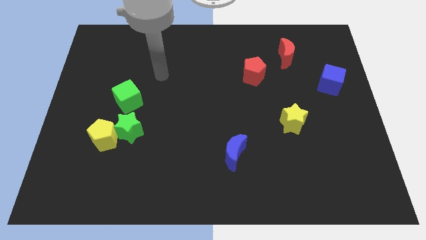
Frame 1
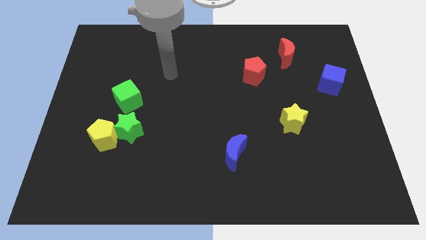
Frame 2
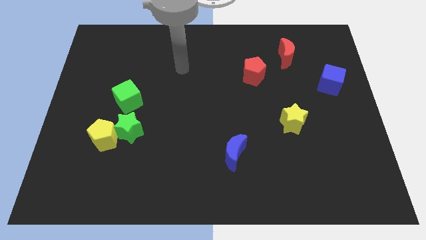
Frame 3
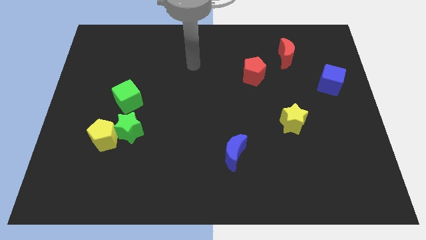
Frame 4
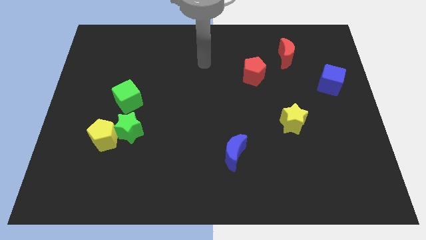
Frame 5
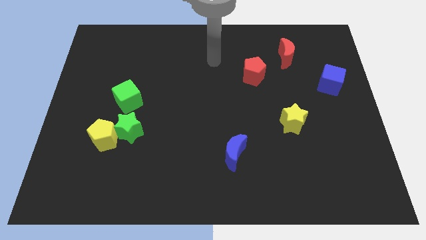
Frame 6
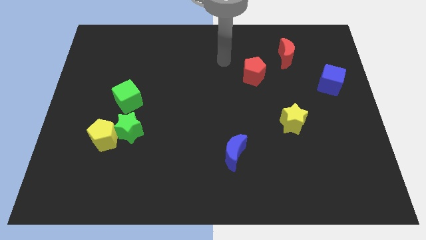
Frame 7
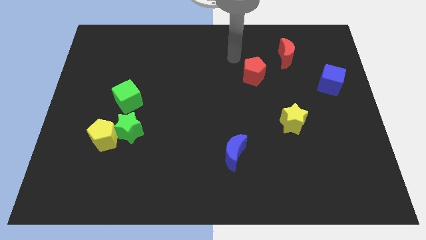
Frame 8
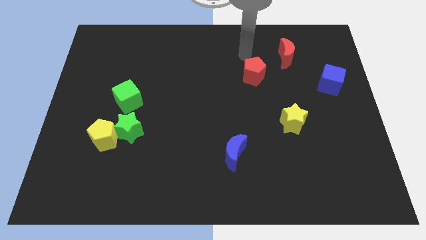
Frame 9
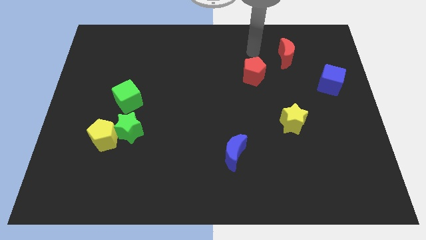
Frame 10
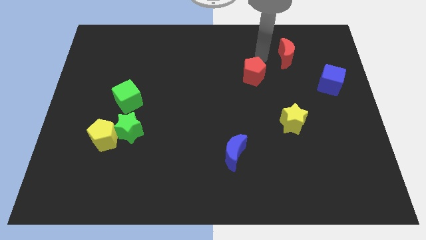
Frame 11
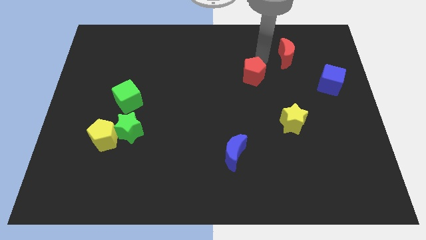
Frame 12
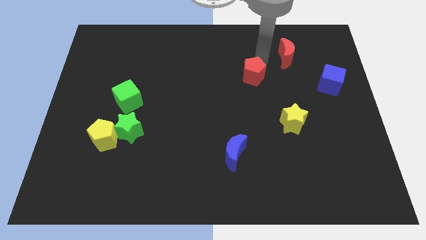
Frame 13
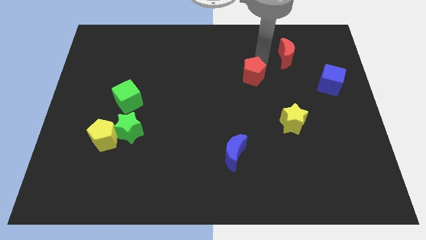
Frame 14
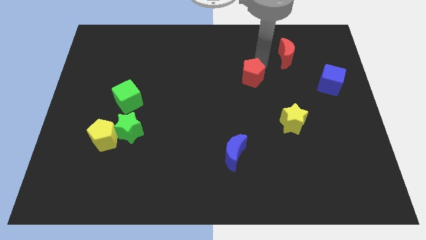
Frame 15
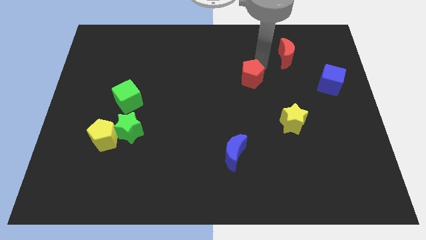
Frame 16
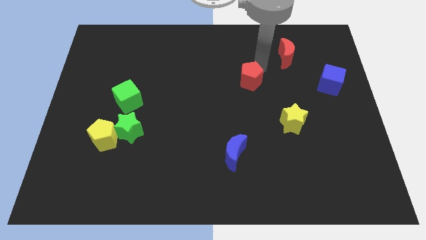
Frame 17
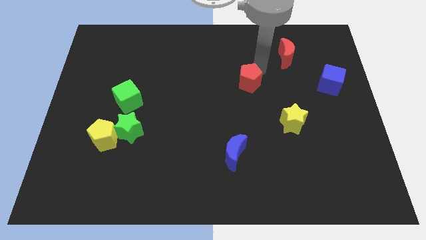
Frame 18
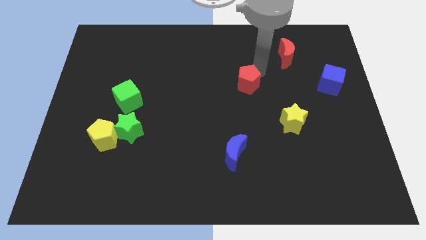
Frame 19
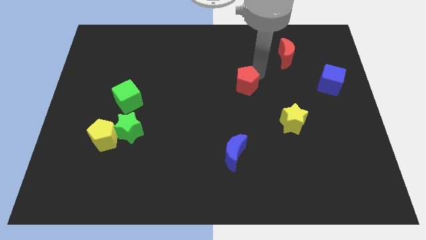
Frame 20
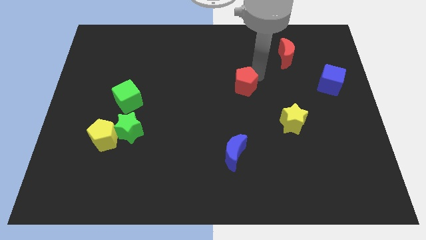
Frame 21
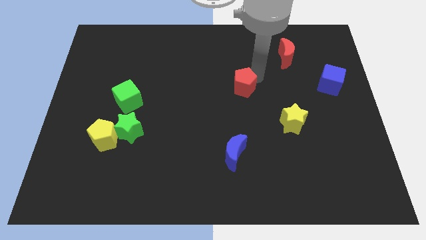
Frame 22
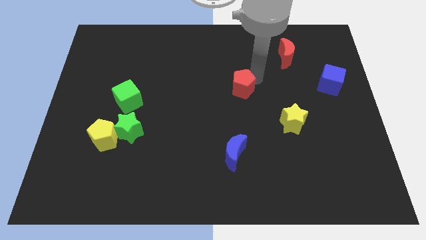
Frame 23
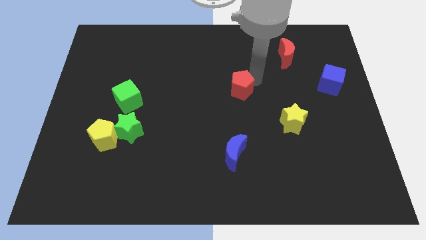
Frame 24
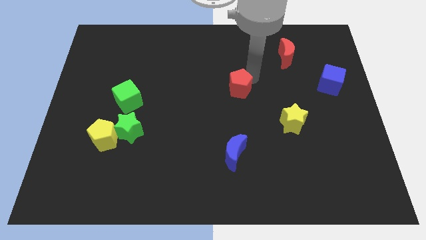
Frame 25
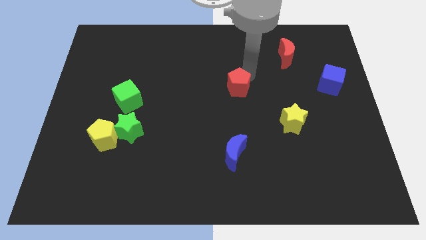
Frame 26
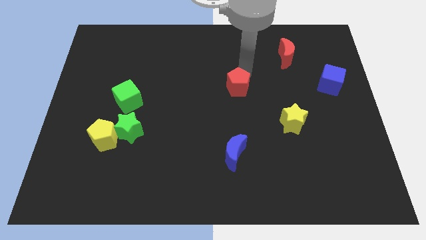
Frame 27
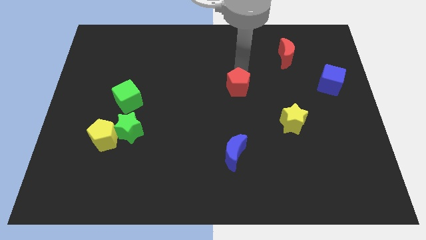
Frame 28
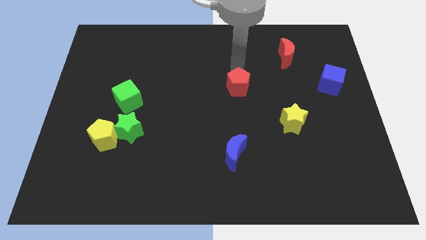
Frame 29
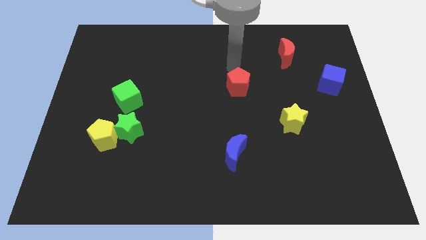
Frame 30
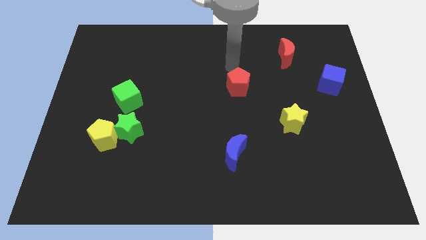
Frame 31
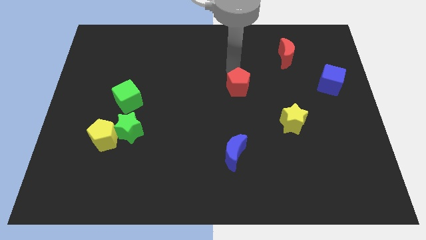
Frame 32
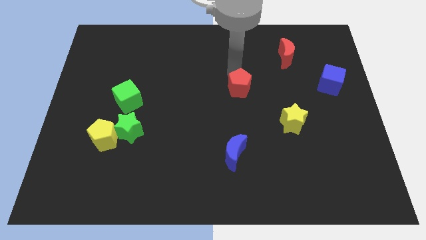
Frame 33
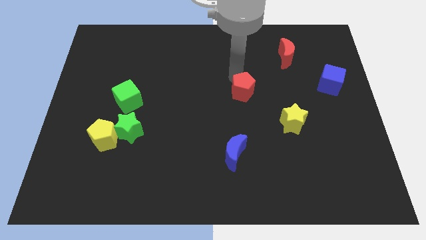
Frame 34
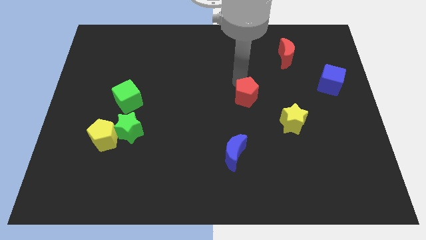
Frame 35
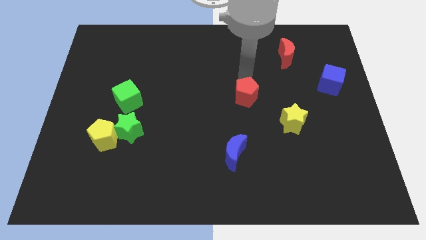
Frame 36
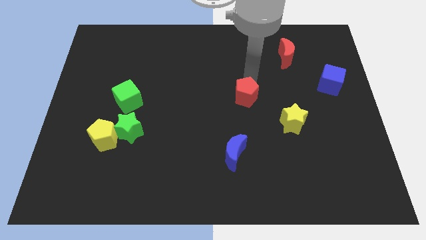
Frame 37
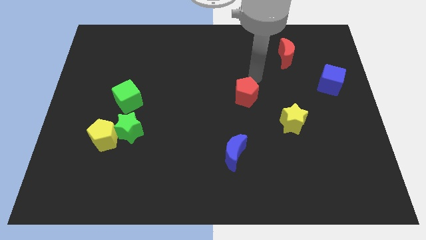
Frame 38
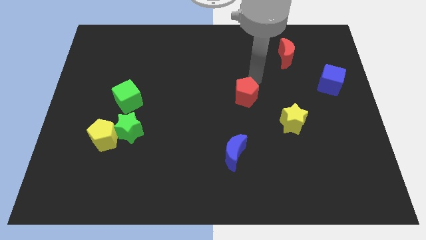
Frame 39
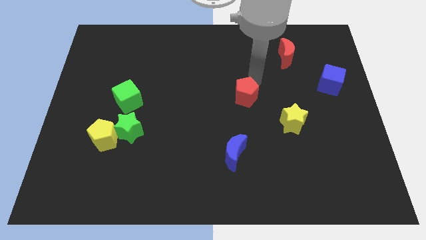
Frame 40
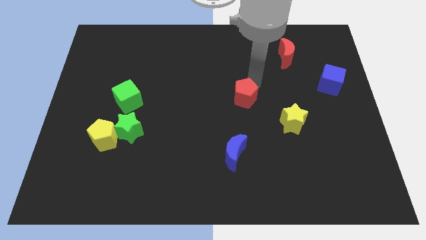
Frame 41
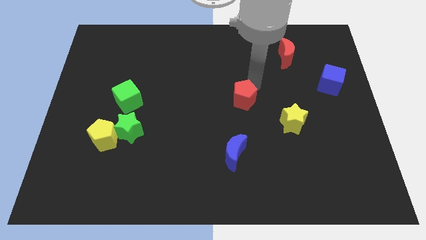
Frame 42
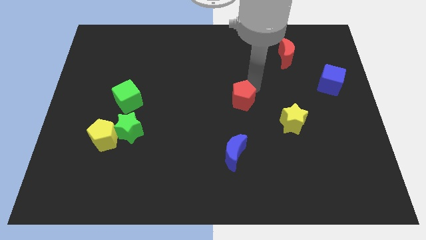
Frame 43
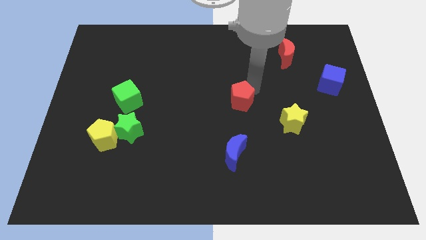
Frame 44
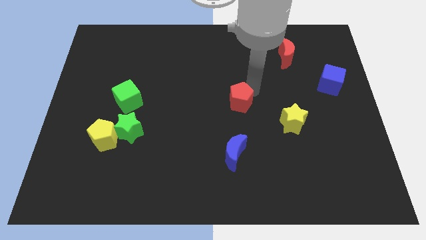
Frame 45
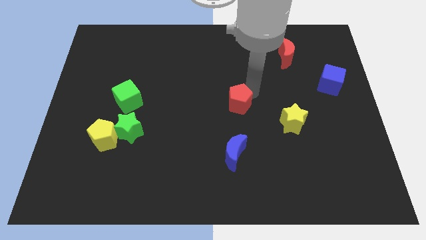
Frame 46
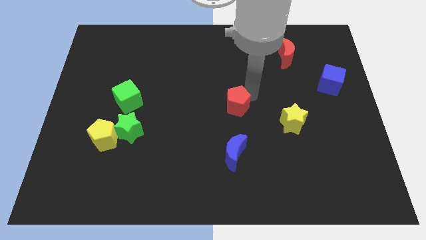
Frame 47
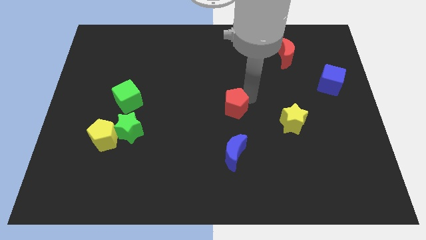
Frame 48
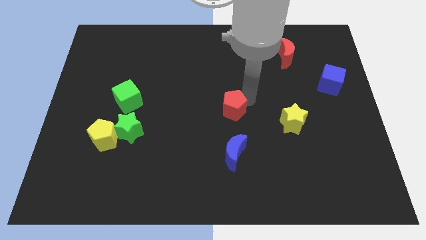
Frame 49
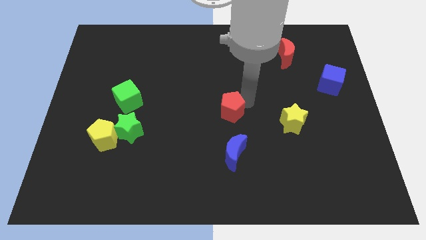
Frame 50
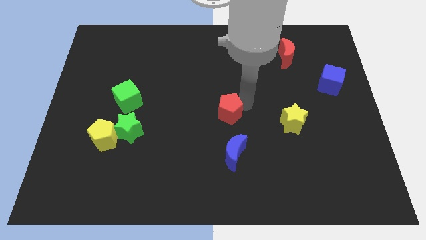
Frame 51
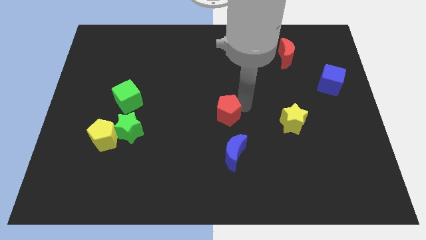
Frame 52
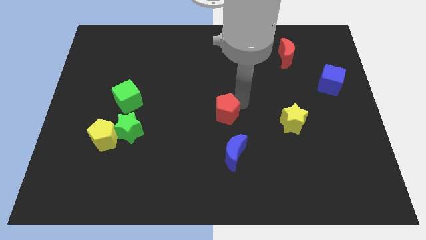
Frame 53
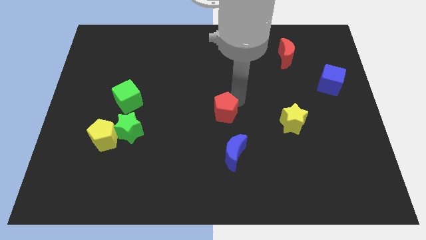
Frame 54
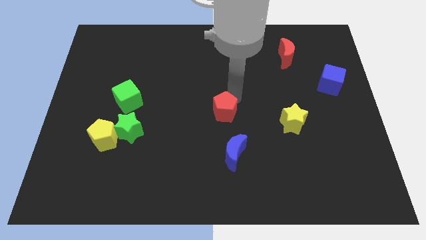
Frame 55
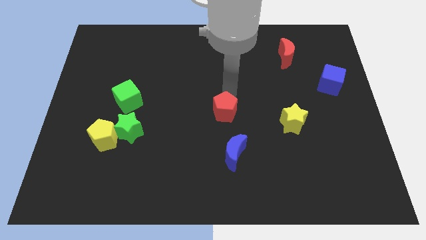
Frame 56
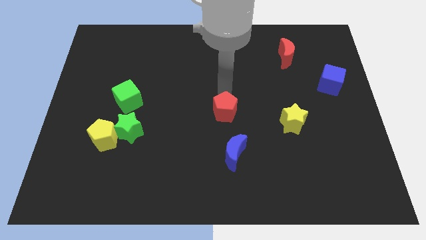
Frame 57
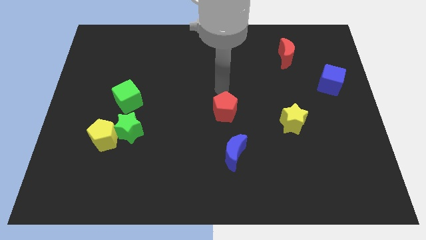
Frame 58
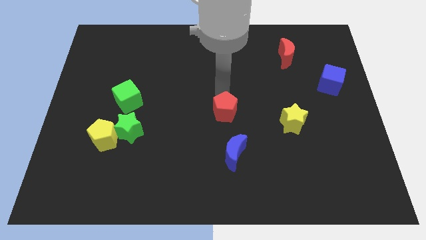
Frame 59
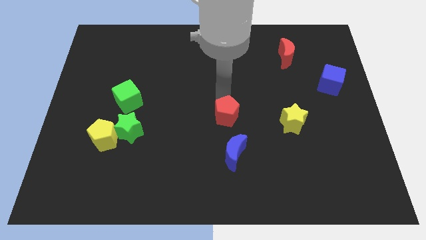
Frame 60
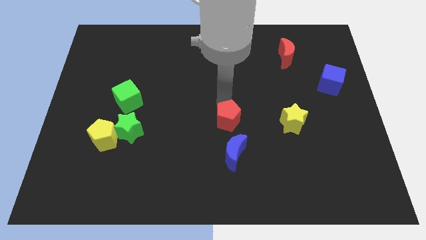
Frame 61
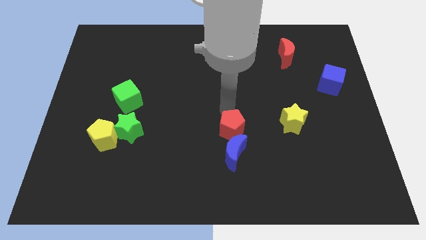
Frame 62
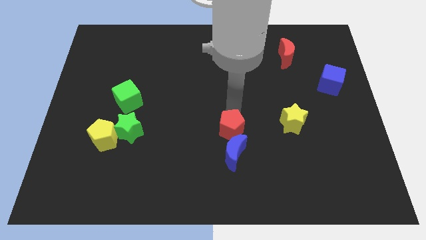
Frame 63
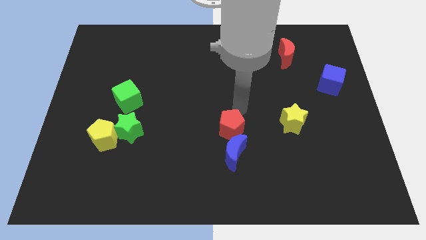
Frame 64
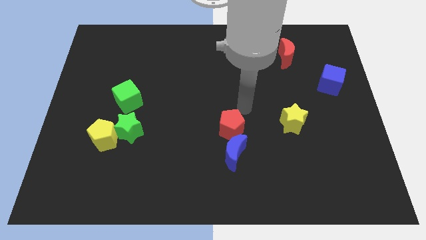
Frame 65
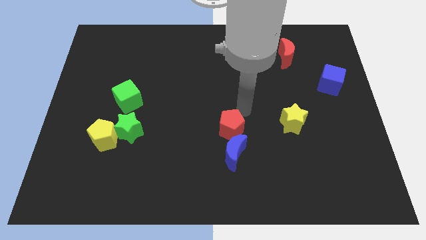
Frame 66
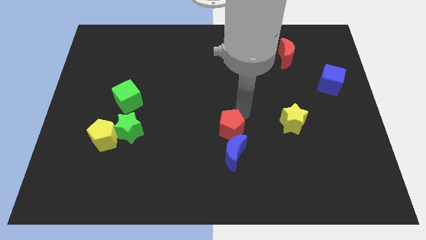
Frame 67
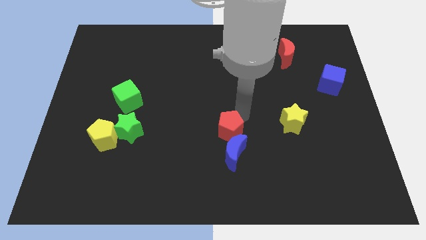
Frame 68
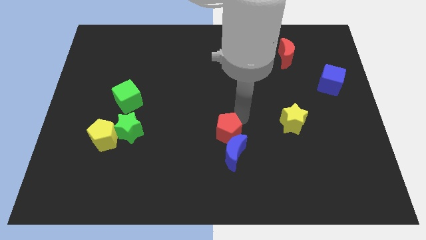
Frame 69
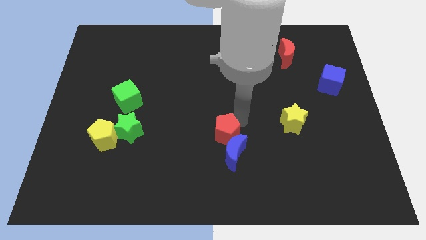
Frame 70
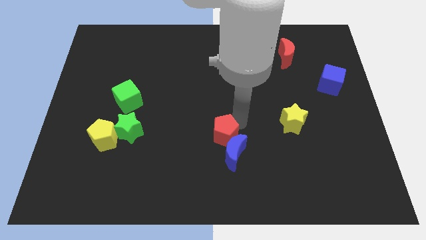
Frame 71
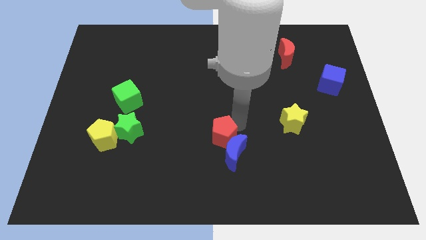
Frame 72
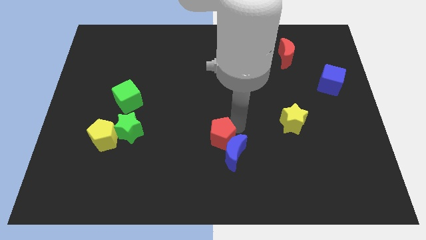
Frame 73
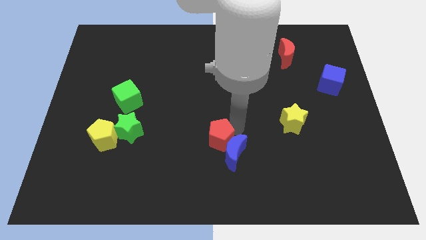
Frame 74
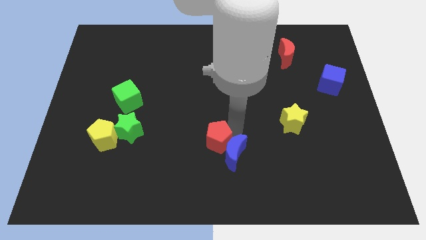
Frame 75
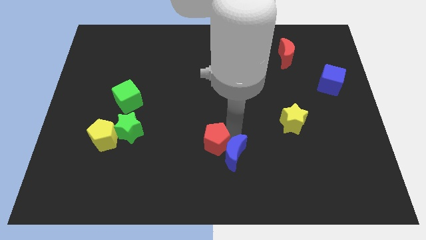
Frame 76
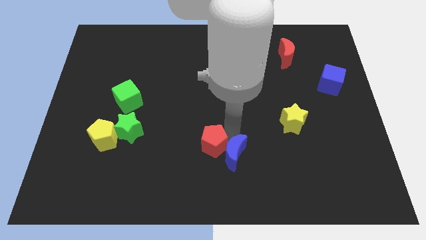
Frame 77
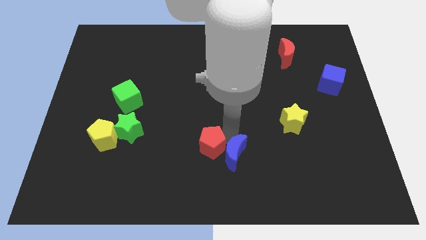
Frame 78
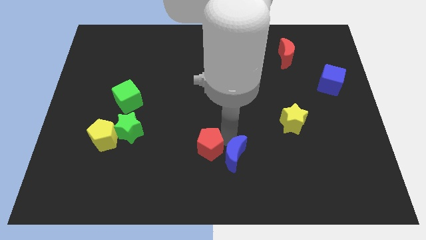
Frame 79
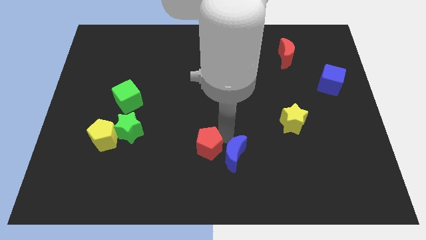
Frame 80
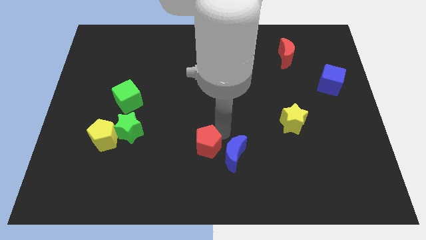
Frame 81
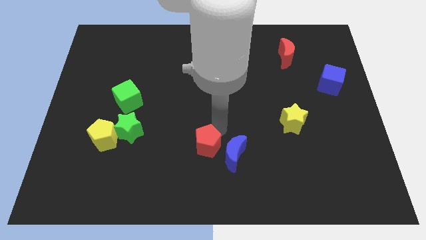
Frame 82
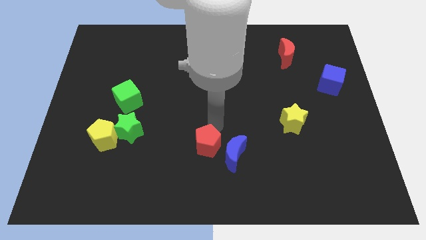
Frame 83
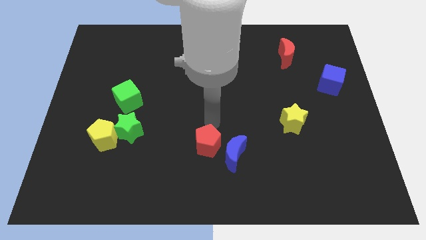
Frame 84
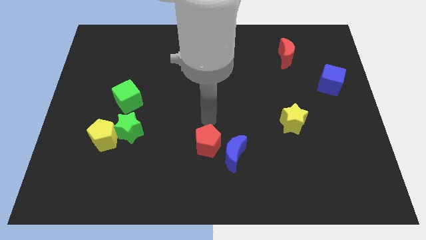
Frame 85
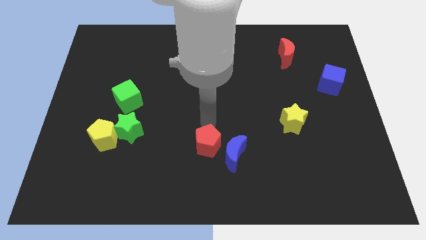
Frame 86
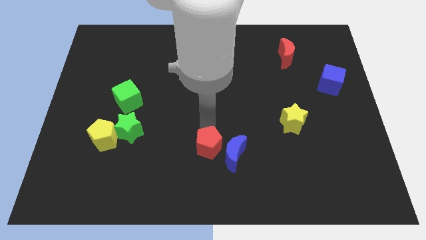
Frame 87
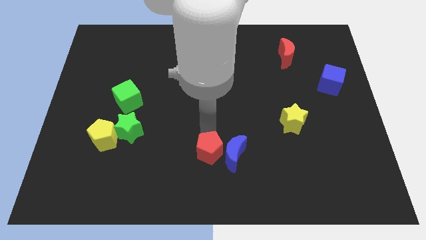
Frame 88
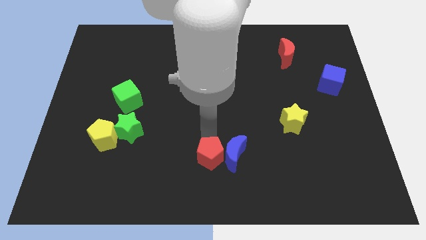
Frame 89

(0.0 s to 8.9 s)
put the red pentagon to the bottom
